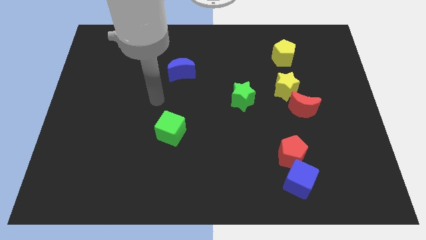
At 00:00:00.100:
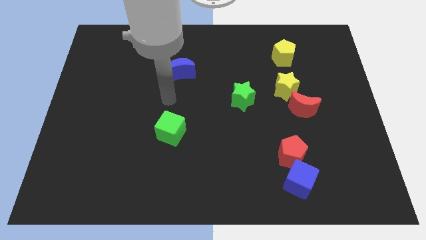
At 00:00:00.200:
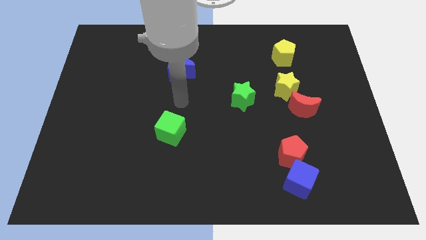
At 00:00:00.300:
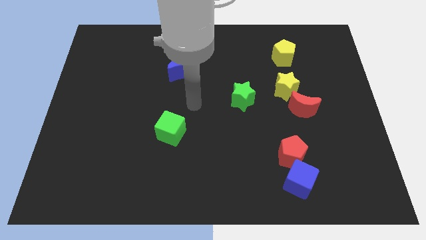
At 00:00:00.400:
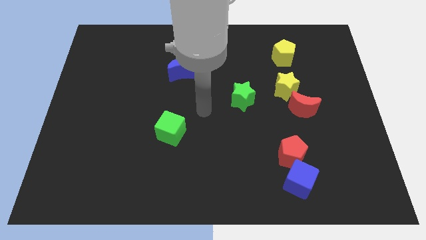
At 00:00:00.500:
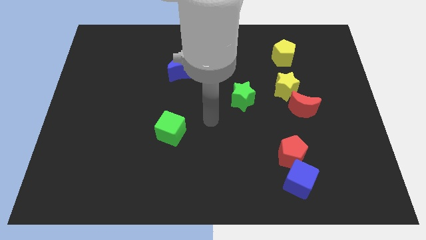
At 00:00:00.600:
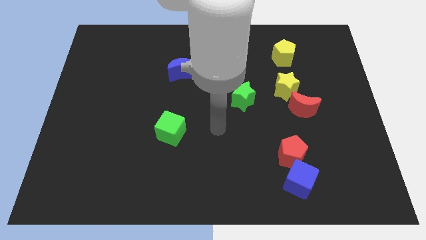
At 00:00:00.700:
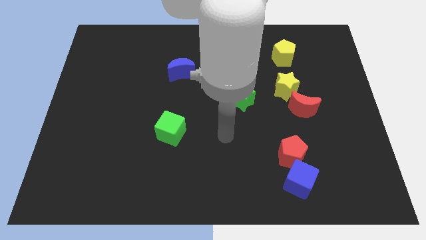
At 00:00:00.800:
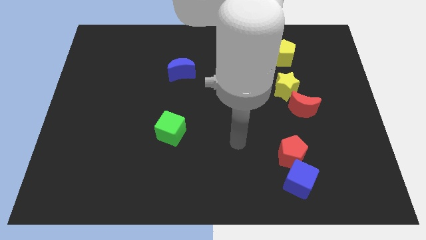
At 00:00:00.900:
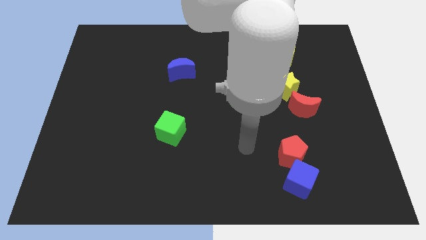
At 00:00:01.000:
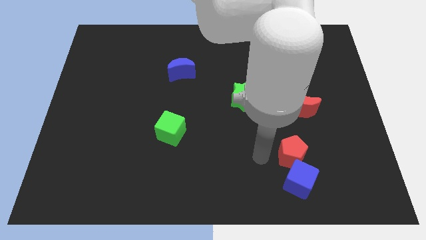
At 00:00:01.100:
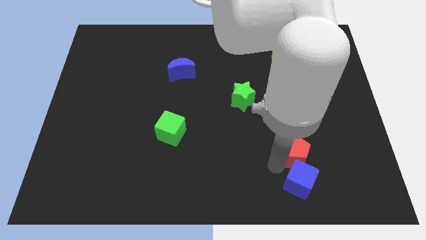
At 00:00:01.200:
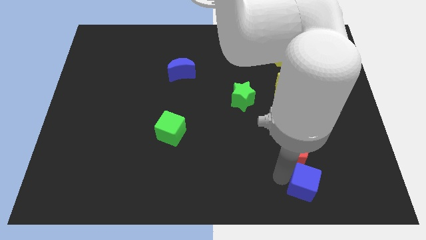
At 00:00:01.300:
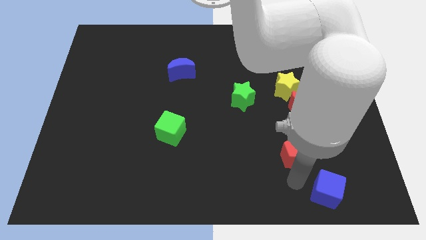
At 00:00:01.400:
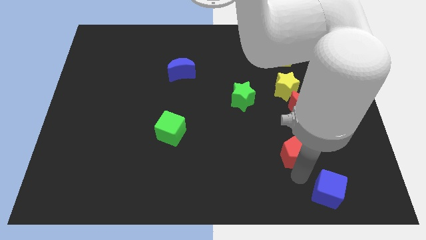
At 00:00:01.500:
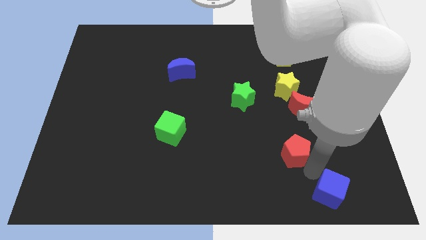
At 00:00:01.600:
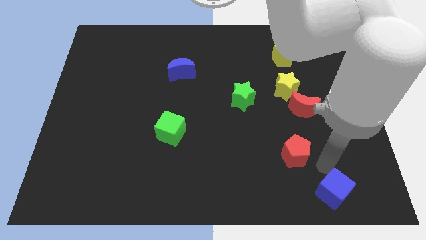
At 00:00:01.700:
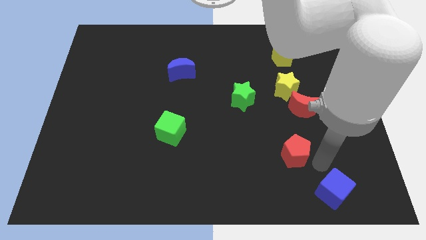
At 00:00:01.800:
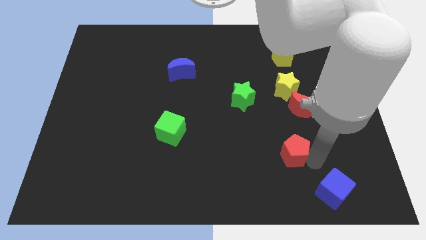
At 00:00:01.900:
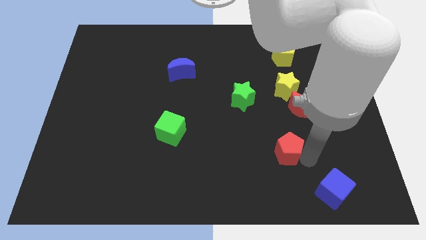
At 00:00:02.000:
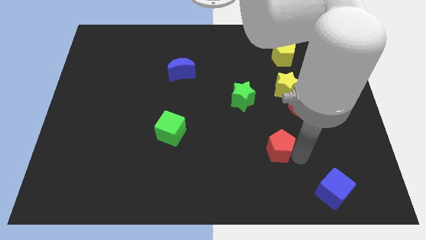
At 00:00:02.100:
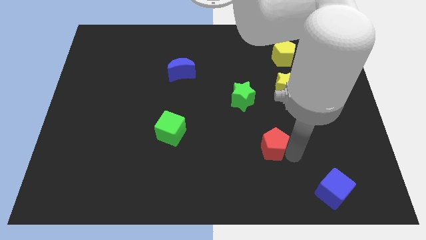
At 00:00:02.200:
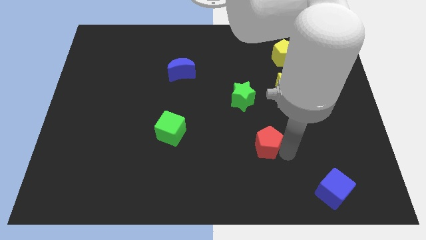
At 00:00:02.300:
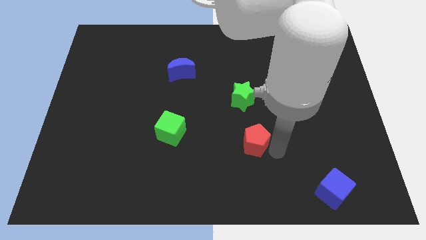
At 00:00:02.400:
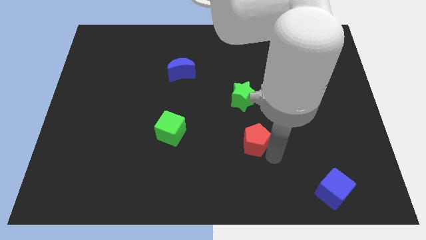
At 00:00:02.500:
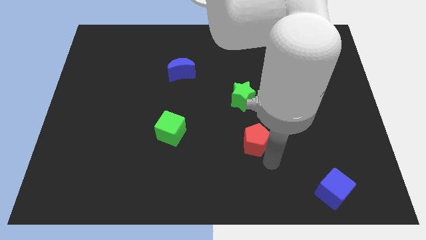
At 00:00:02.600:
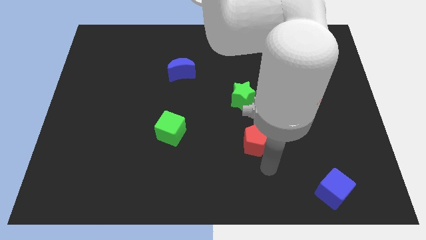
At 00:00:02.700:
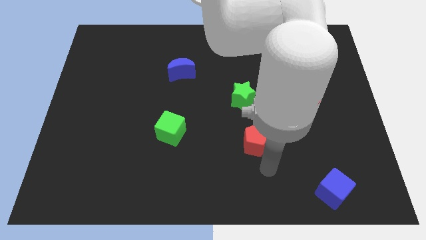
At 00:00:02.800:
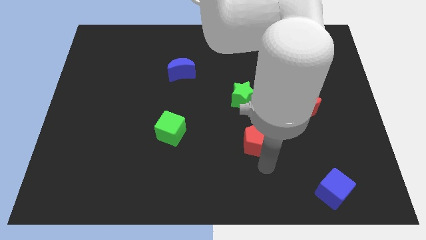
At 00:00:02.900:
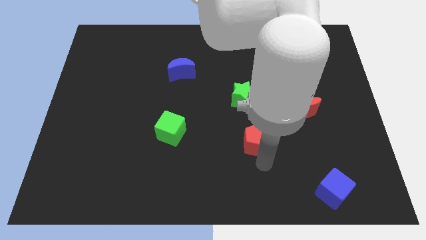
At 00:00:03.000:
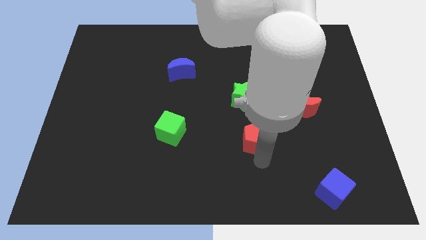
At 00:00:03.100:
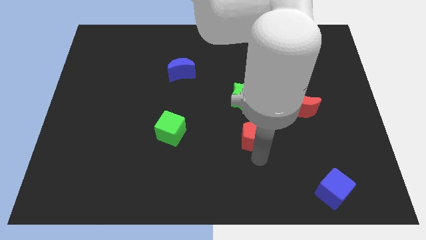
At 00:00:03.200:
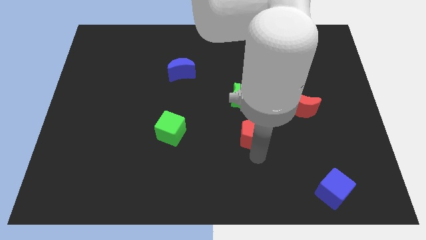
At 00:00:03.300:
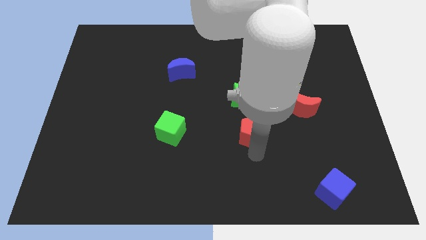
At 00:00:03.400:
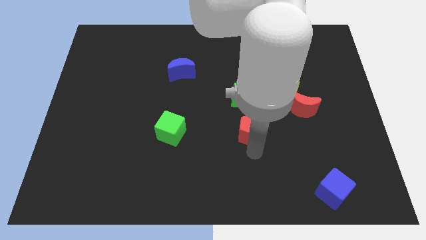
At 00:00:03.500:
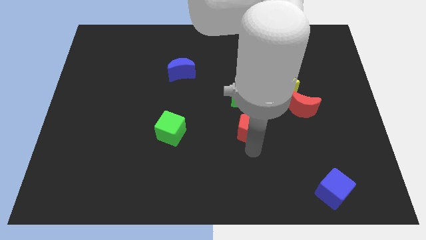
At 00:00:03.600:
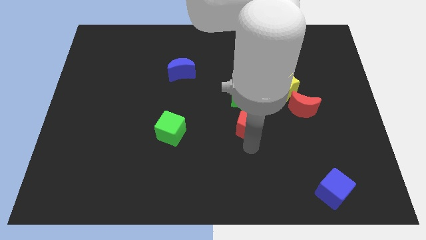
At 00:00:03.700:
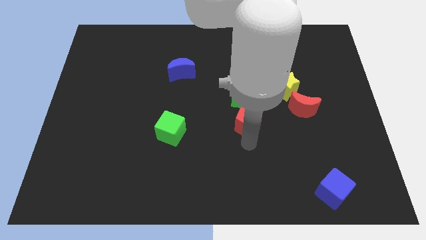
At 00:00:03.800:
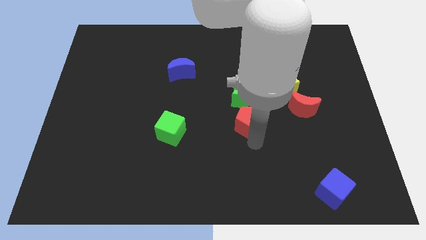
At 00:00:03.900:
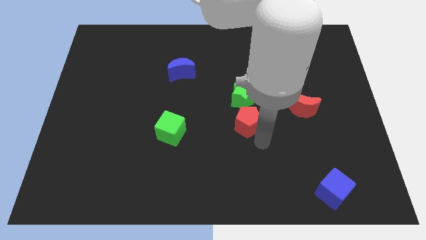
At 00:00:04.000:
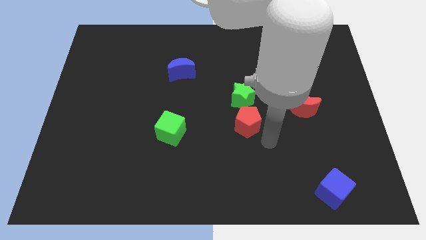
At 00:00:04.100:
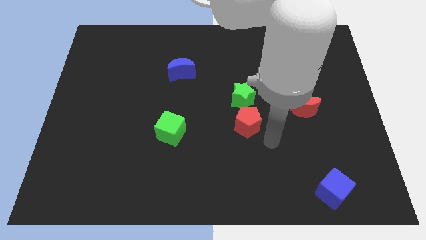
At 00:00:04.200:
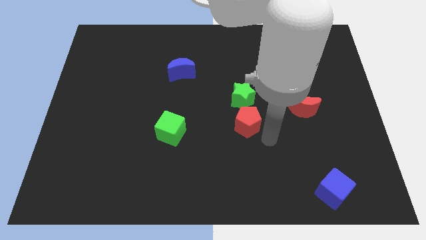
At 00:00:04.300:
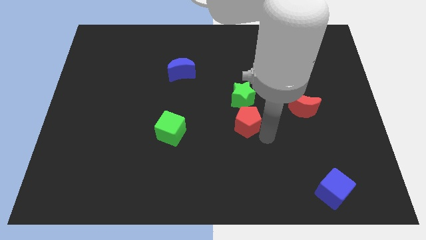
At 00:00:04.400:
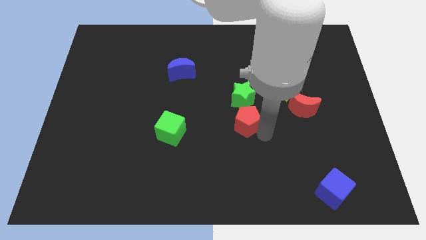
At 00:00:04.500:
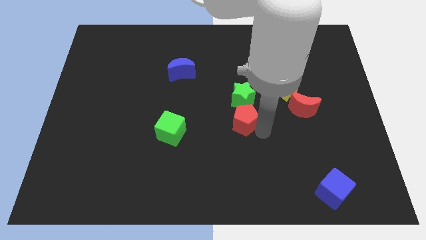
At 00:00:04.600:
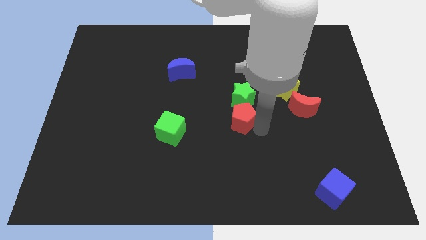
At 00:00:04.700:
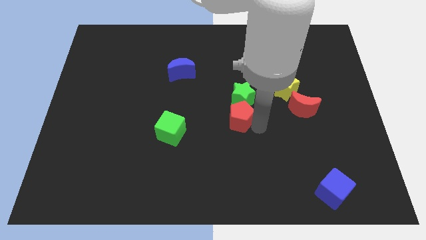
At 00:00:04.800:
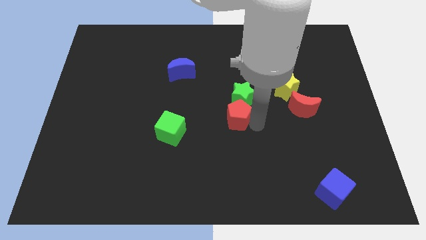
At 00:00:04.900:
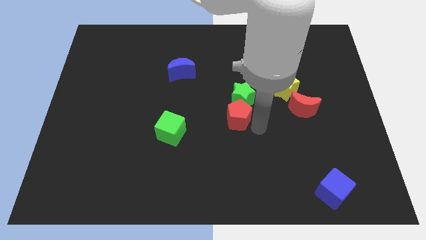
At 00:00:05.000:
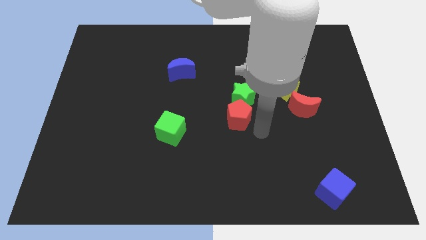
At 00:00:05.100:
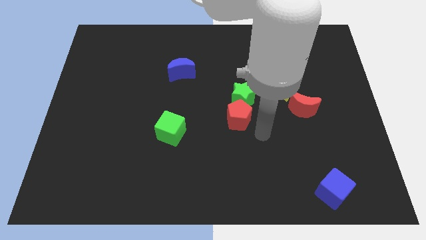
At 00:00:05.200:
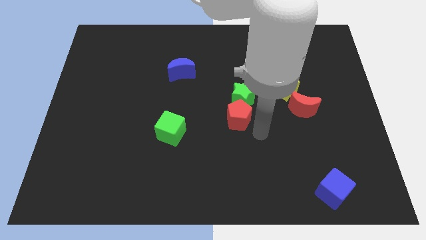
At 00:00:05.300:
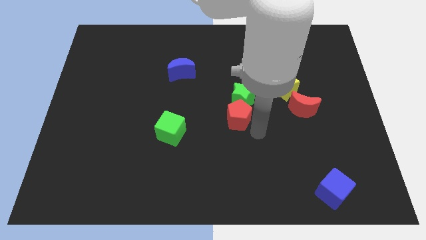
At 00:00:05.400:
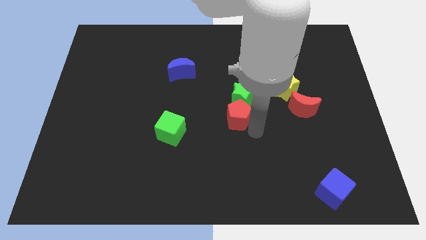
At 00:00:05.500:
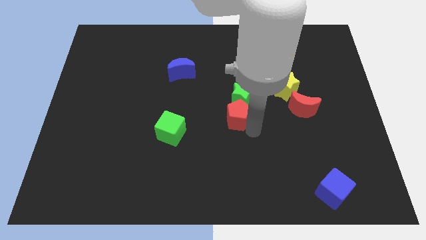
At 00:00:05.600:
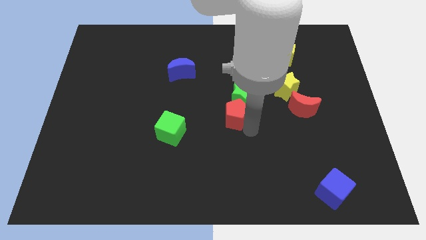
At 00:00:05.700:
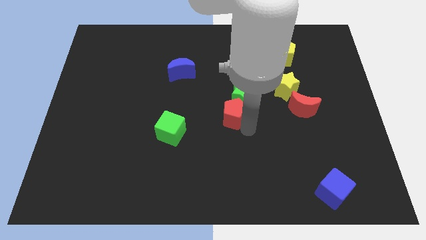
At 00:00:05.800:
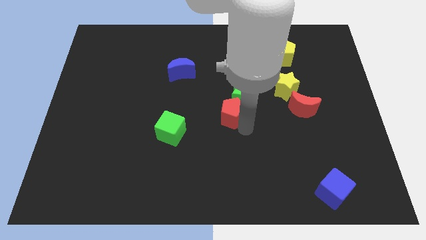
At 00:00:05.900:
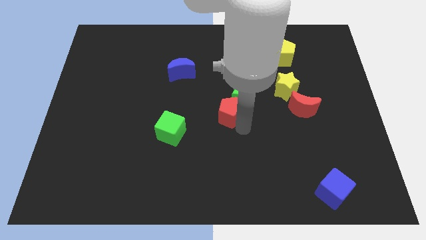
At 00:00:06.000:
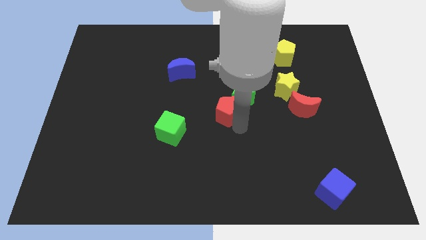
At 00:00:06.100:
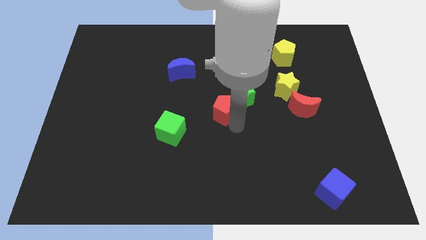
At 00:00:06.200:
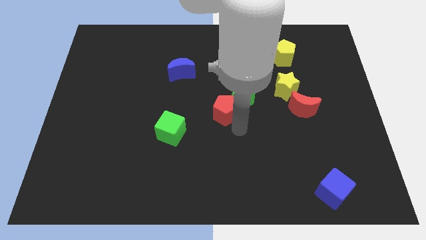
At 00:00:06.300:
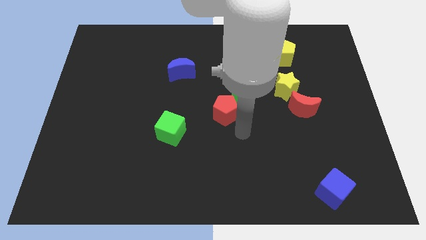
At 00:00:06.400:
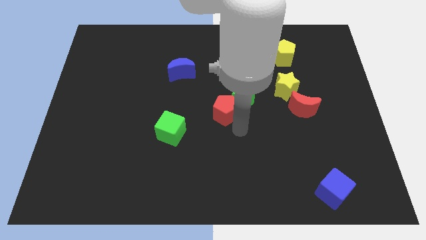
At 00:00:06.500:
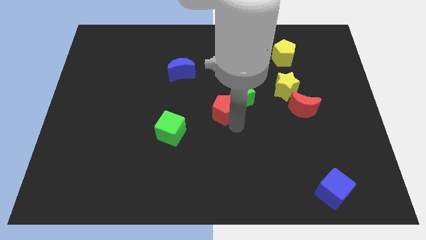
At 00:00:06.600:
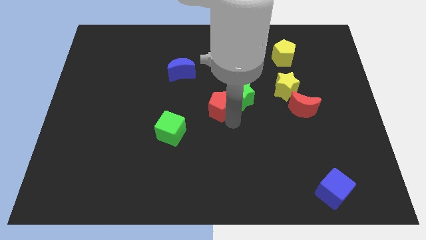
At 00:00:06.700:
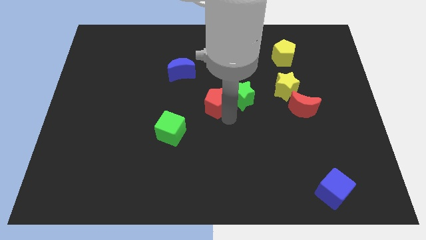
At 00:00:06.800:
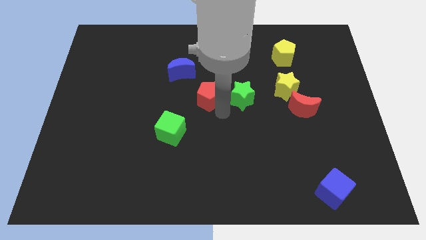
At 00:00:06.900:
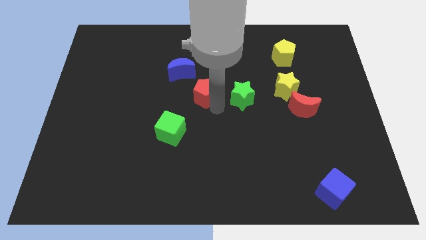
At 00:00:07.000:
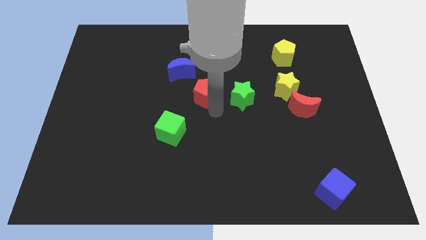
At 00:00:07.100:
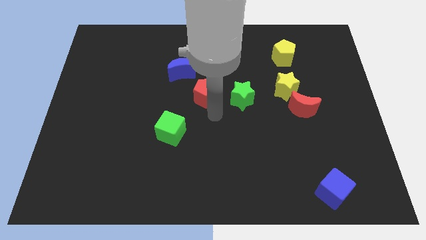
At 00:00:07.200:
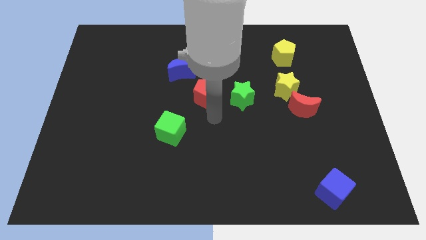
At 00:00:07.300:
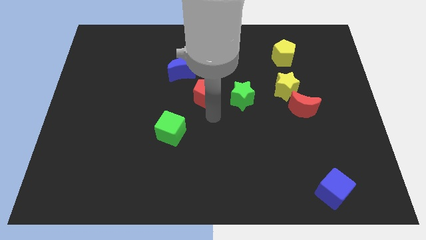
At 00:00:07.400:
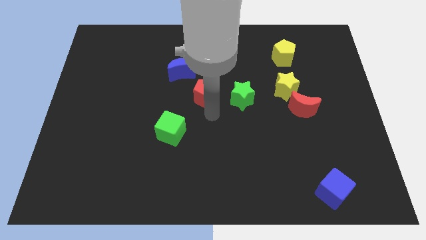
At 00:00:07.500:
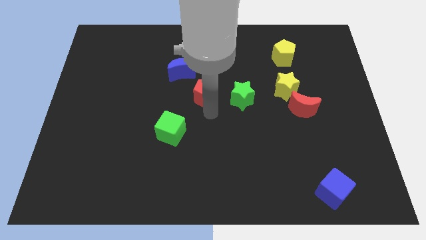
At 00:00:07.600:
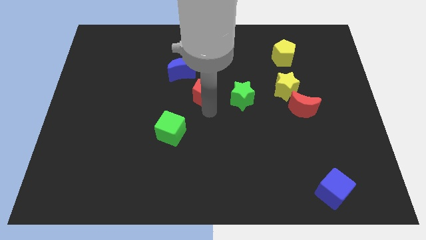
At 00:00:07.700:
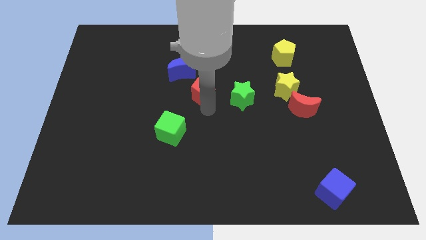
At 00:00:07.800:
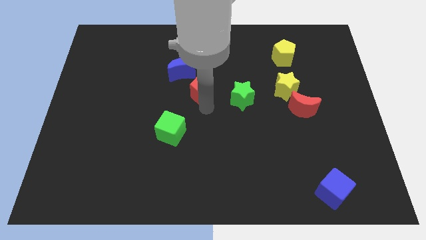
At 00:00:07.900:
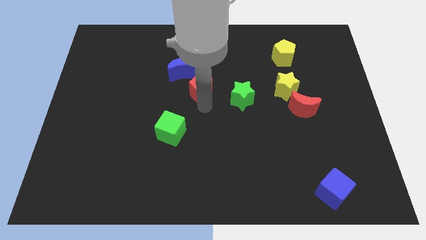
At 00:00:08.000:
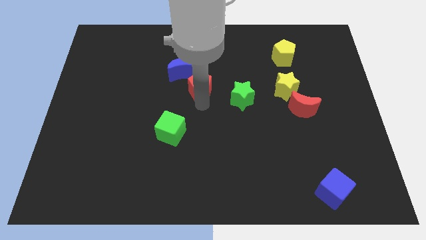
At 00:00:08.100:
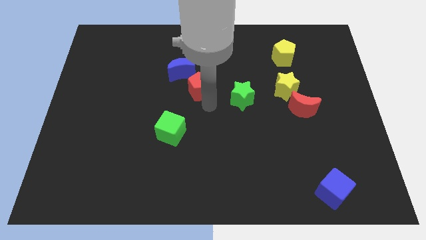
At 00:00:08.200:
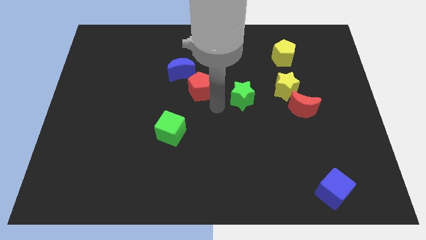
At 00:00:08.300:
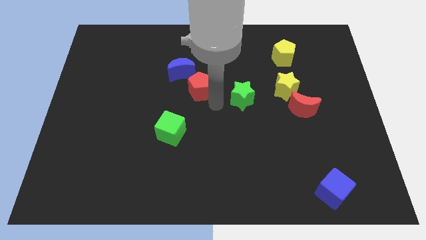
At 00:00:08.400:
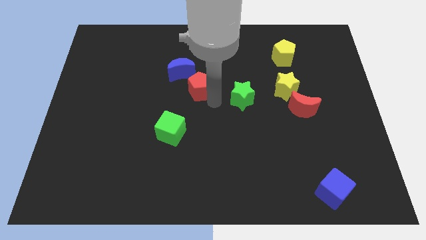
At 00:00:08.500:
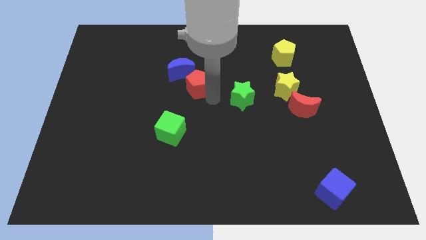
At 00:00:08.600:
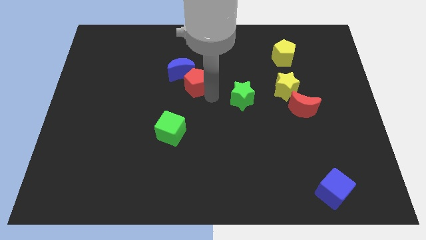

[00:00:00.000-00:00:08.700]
move the red pentagon close to the blue moon
